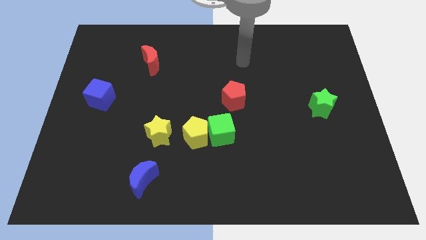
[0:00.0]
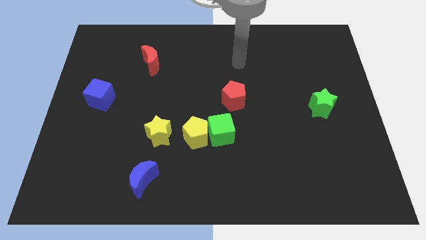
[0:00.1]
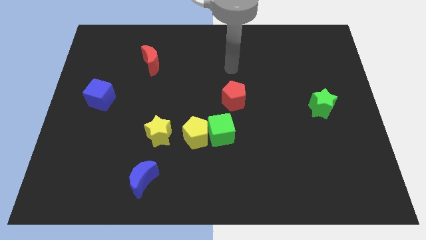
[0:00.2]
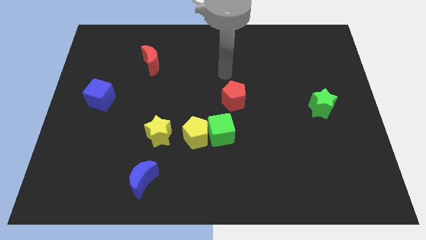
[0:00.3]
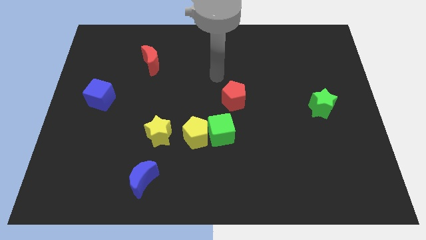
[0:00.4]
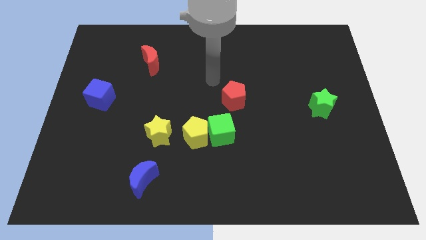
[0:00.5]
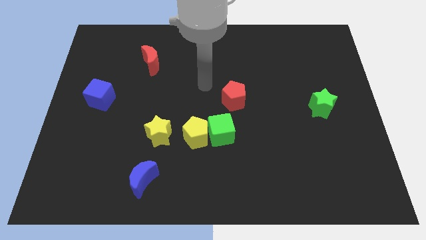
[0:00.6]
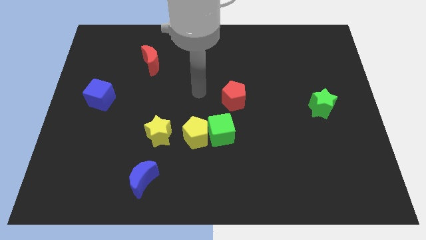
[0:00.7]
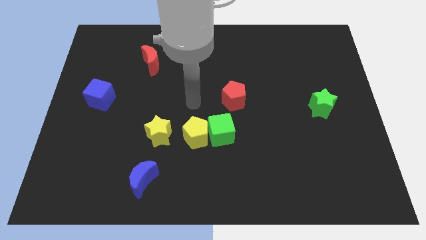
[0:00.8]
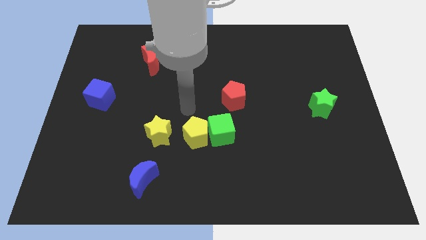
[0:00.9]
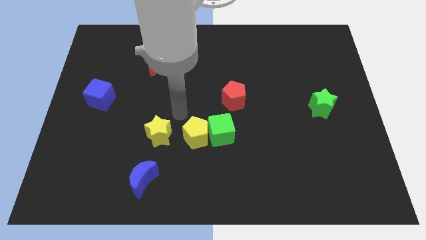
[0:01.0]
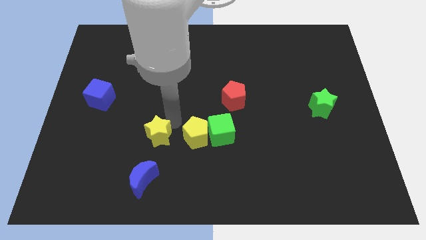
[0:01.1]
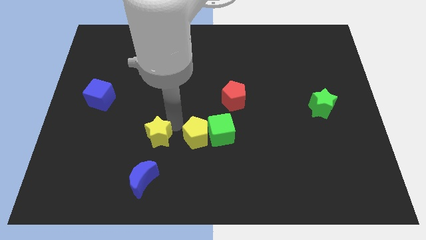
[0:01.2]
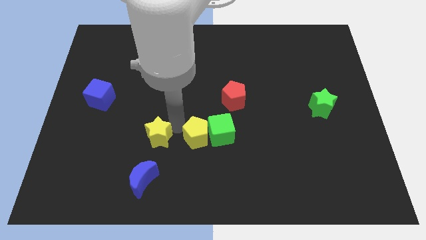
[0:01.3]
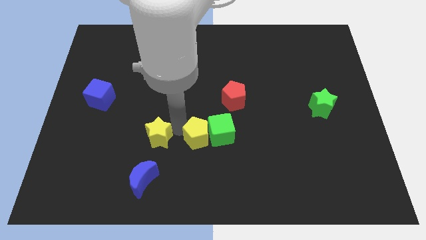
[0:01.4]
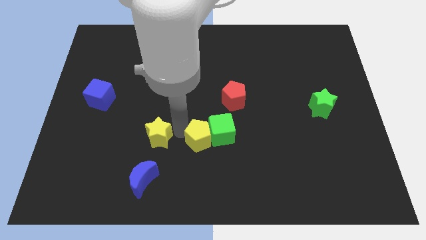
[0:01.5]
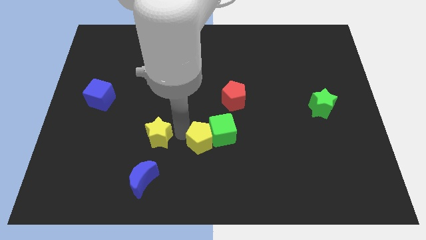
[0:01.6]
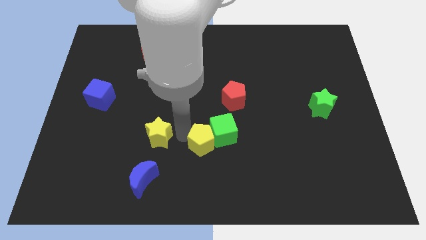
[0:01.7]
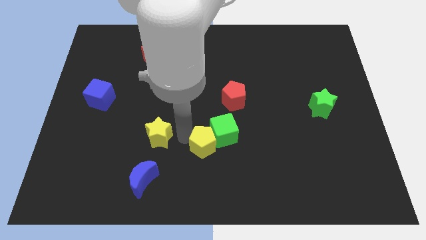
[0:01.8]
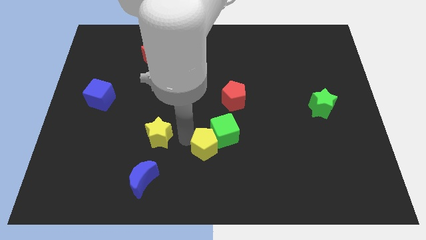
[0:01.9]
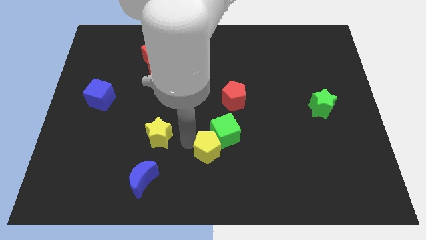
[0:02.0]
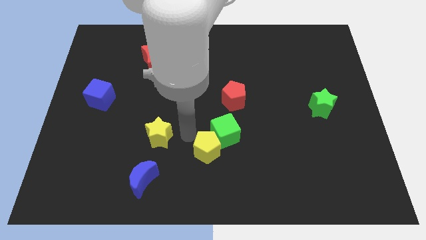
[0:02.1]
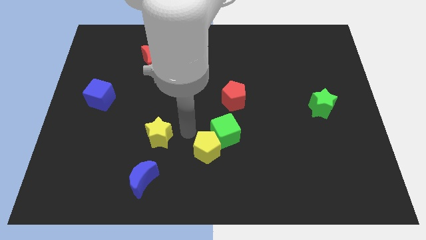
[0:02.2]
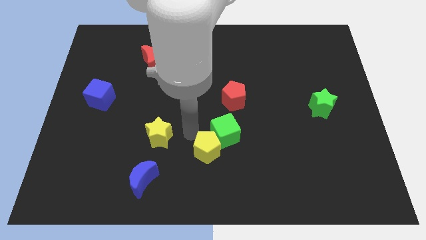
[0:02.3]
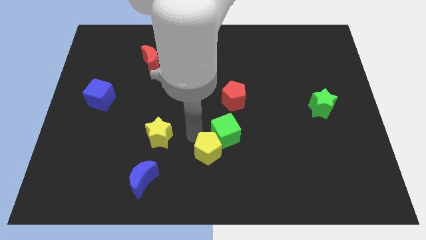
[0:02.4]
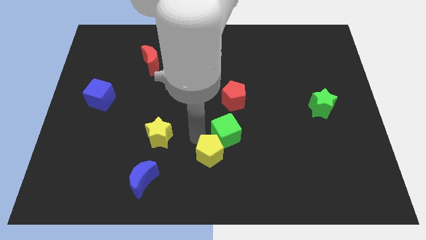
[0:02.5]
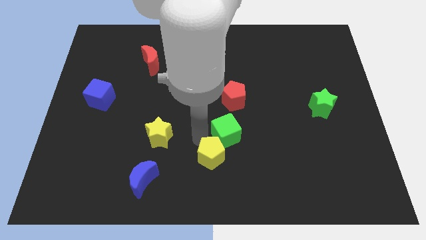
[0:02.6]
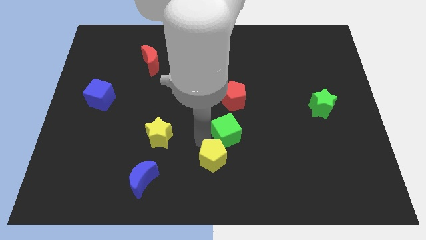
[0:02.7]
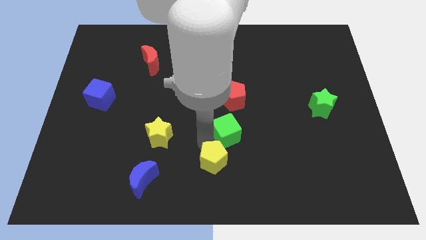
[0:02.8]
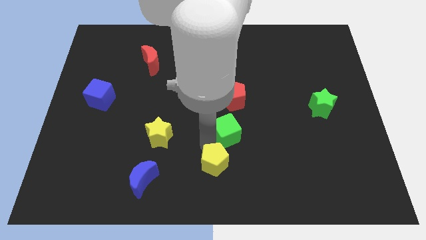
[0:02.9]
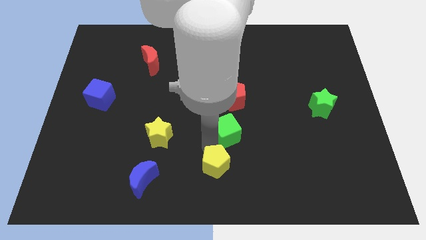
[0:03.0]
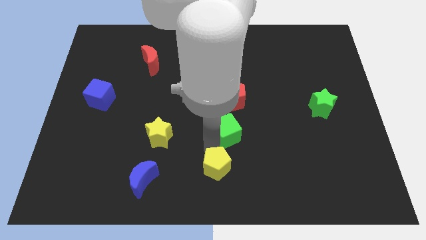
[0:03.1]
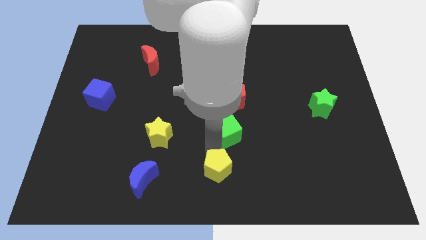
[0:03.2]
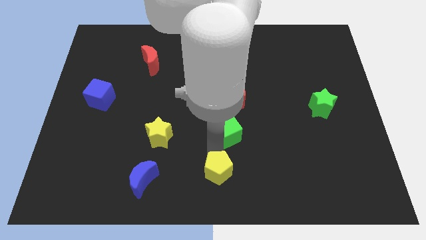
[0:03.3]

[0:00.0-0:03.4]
pull the yellow pentagon apart from the green cube and yellow star

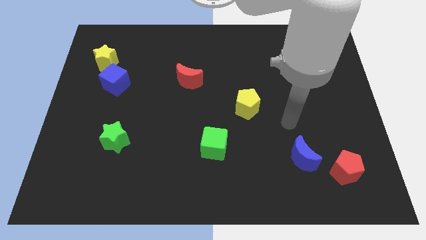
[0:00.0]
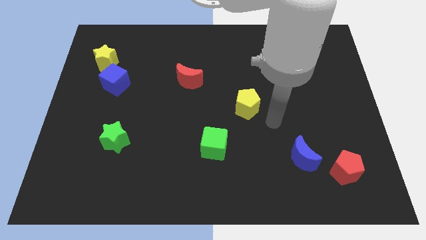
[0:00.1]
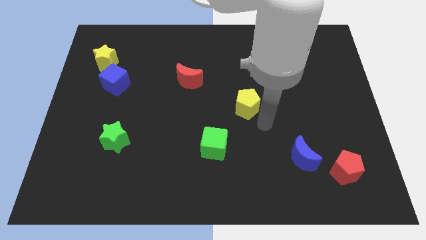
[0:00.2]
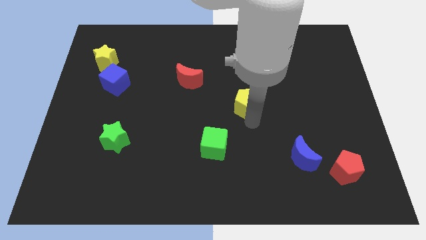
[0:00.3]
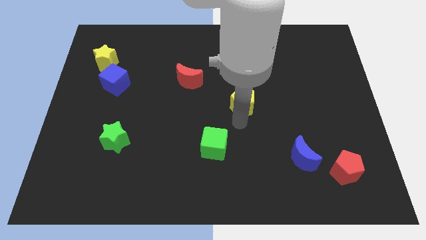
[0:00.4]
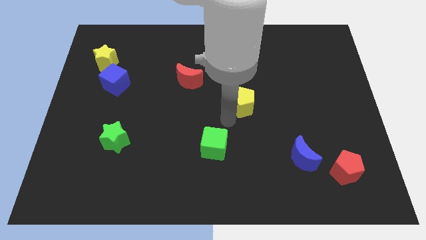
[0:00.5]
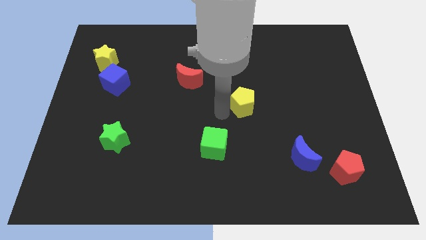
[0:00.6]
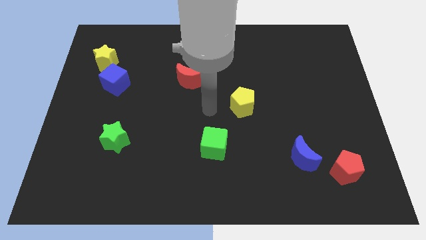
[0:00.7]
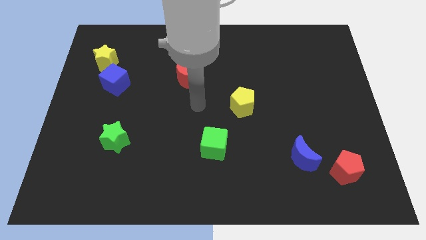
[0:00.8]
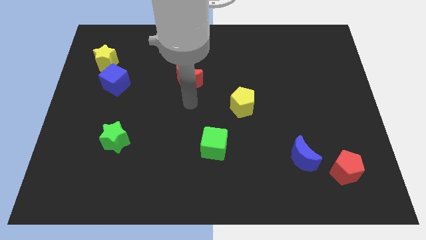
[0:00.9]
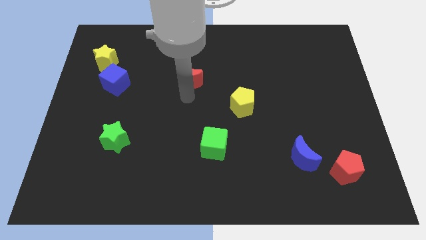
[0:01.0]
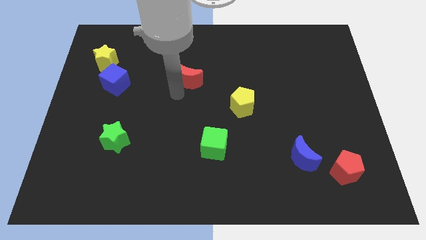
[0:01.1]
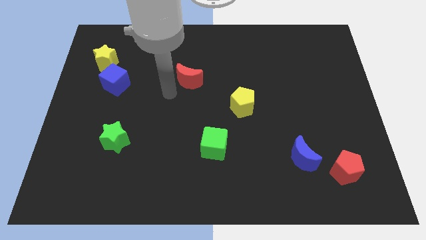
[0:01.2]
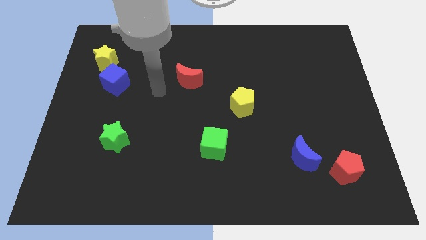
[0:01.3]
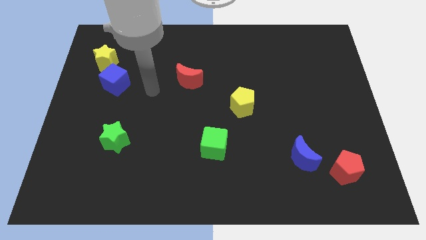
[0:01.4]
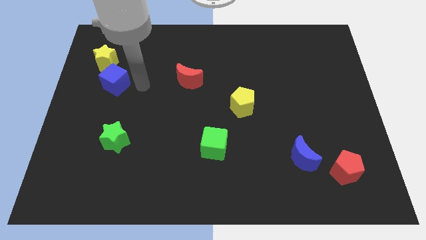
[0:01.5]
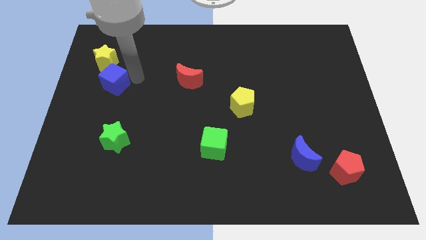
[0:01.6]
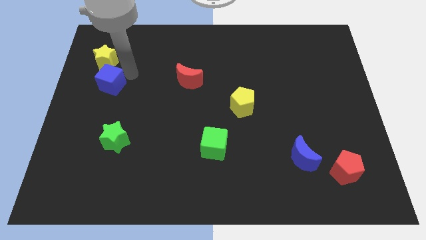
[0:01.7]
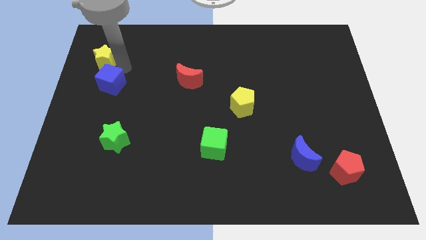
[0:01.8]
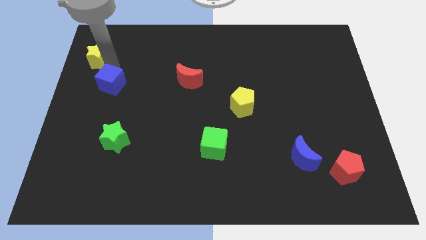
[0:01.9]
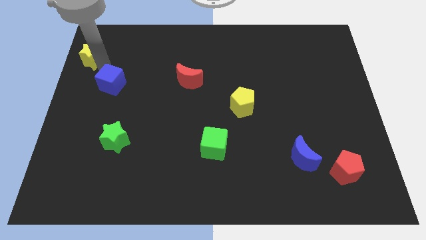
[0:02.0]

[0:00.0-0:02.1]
pull the blue cube apart from the yellow star

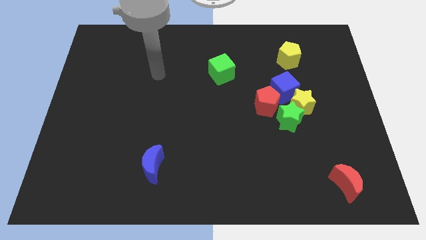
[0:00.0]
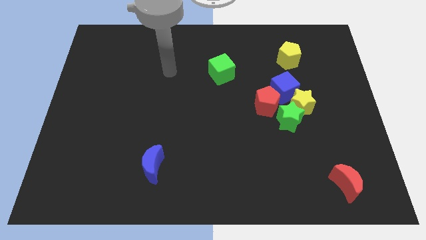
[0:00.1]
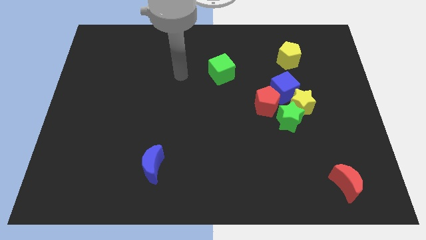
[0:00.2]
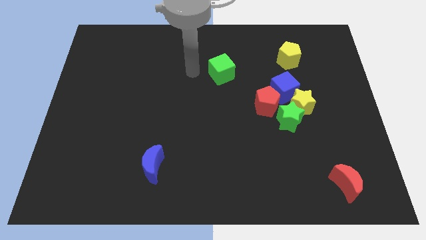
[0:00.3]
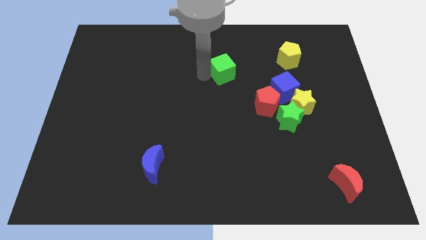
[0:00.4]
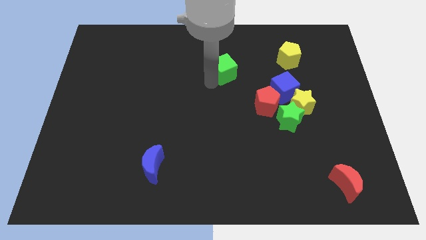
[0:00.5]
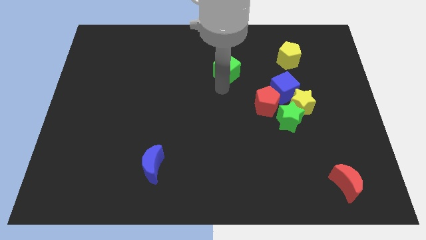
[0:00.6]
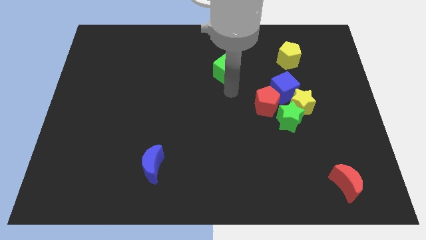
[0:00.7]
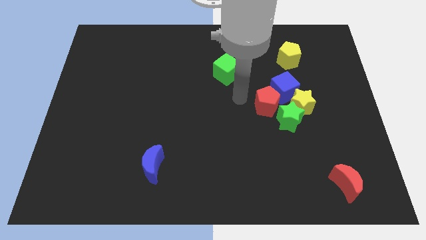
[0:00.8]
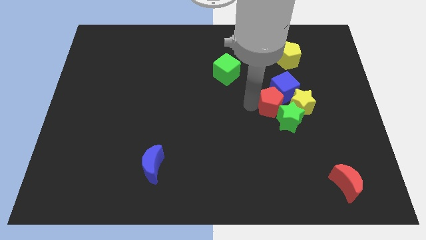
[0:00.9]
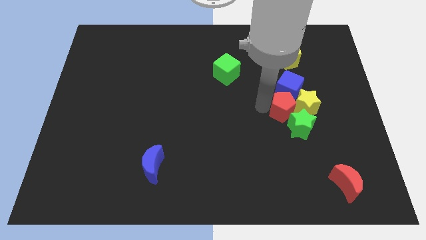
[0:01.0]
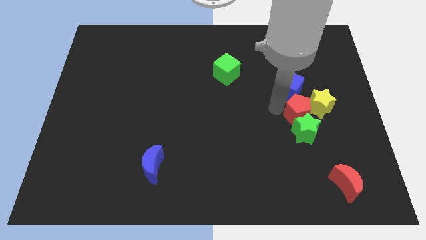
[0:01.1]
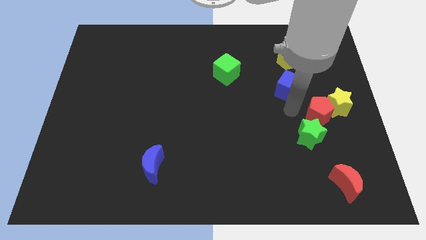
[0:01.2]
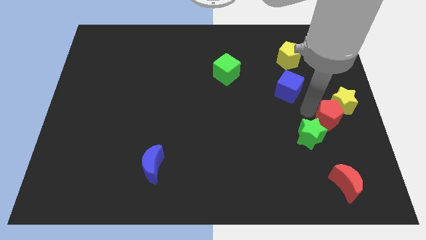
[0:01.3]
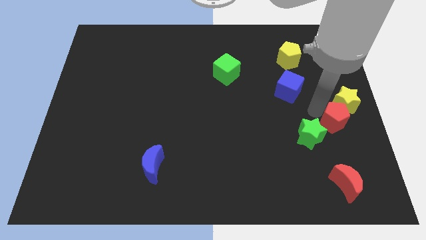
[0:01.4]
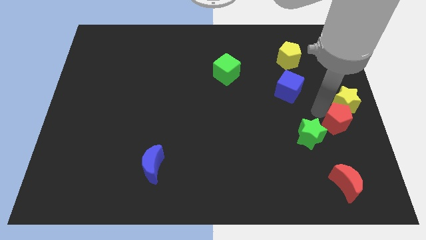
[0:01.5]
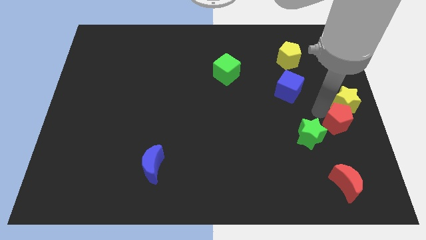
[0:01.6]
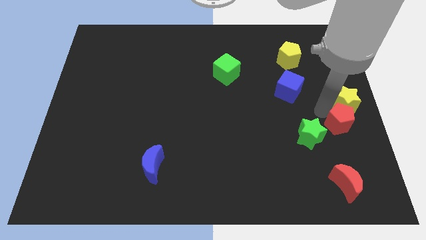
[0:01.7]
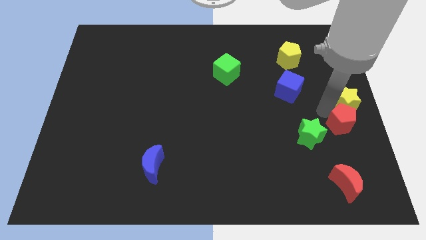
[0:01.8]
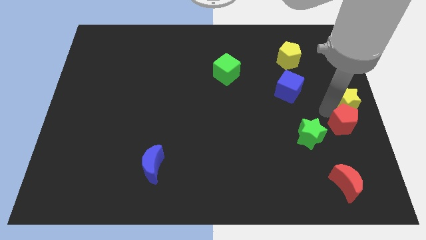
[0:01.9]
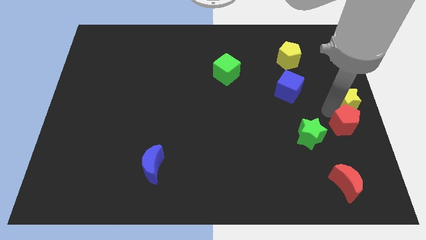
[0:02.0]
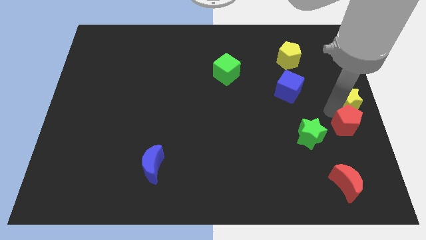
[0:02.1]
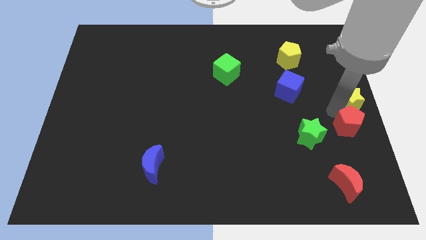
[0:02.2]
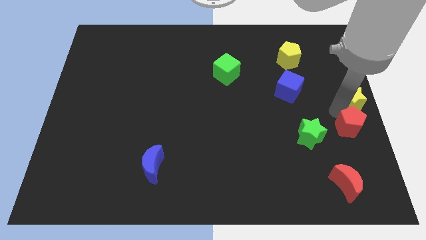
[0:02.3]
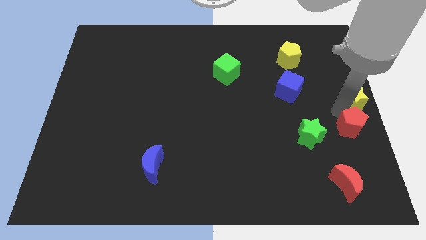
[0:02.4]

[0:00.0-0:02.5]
move the yellow star away from the group of blocks

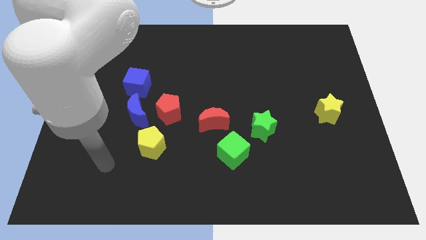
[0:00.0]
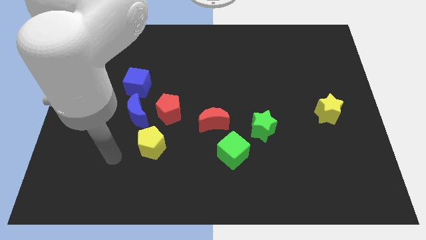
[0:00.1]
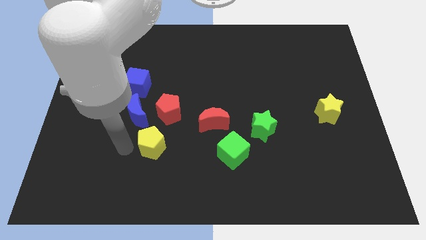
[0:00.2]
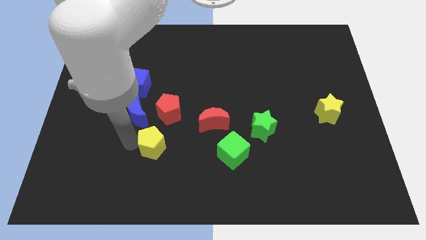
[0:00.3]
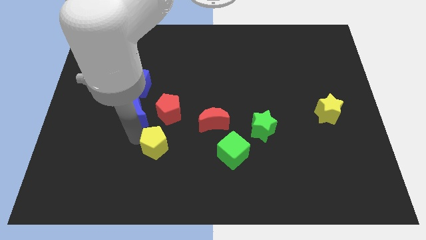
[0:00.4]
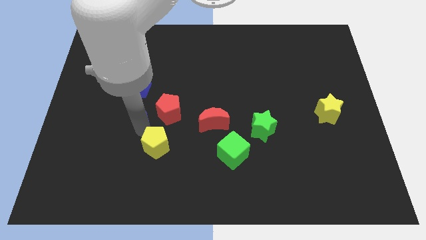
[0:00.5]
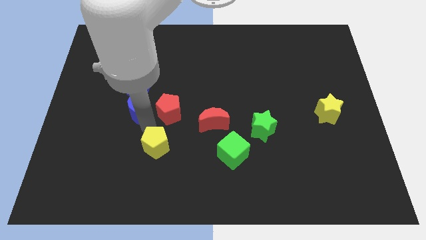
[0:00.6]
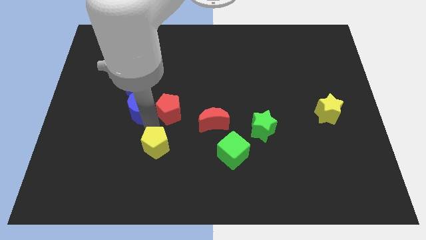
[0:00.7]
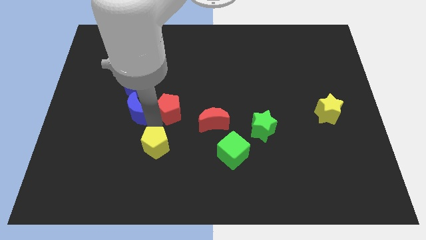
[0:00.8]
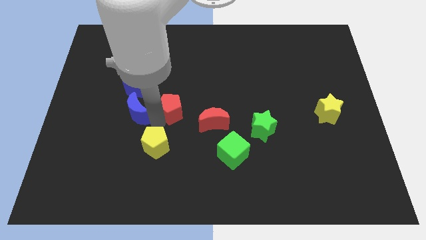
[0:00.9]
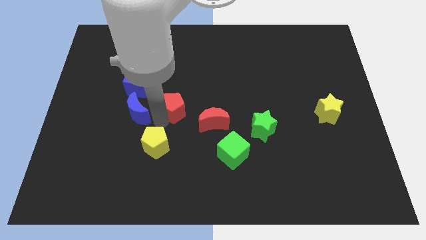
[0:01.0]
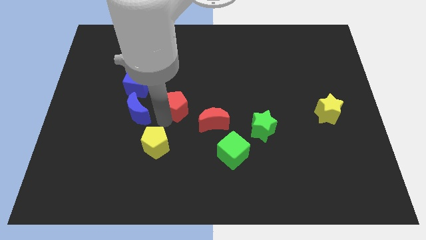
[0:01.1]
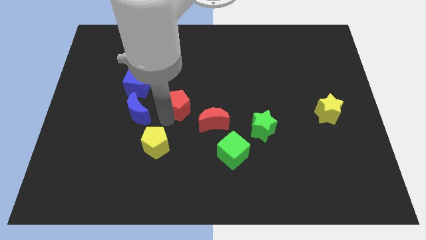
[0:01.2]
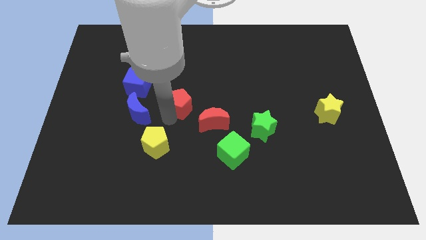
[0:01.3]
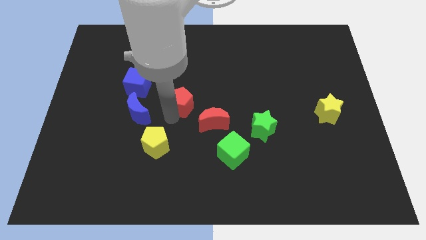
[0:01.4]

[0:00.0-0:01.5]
pull the red pentagon apart from the blue moon and yellow pentagon
